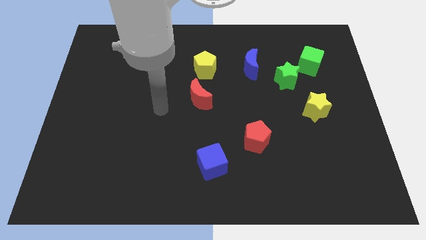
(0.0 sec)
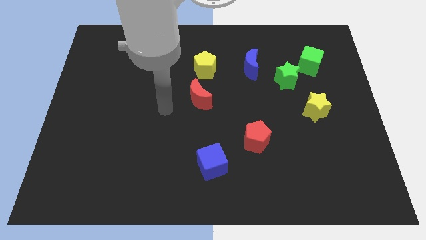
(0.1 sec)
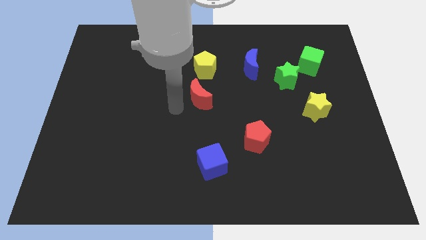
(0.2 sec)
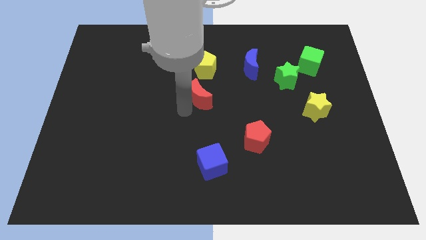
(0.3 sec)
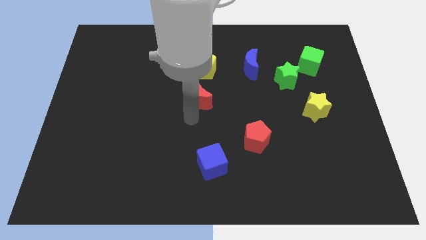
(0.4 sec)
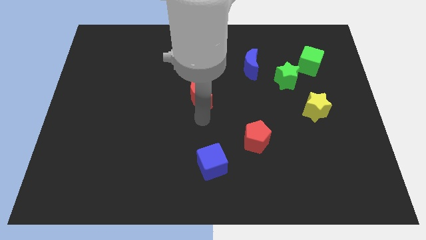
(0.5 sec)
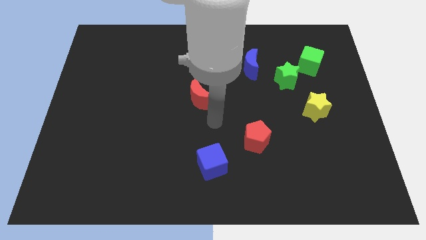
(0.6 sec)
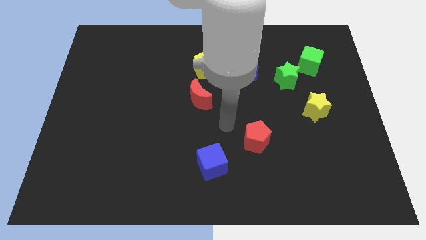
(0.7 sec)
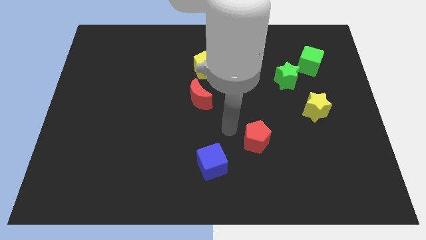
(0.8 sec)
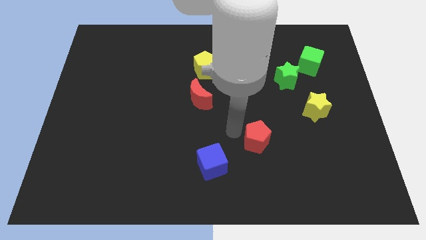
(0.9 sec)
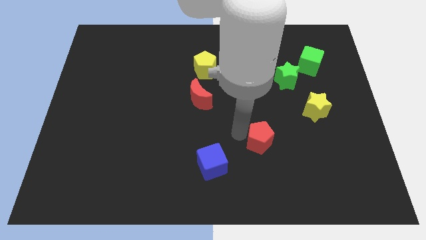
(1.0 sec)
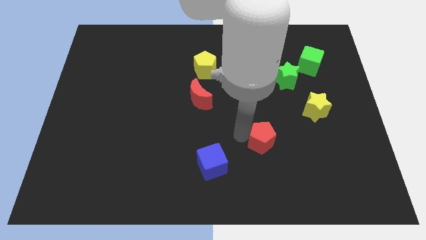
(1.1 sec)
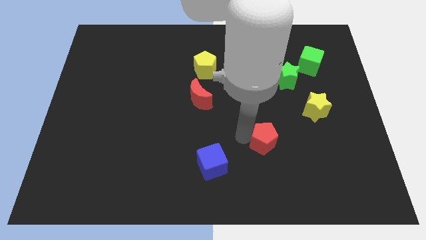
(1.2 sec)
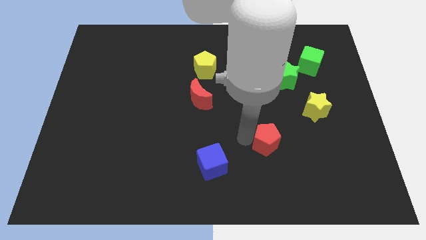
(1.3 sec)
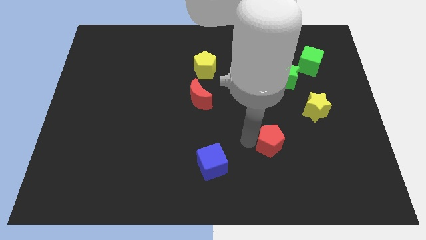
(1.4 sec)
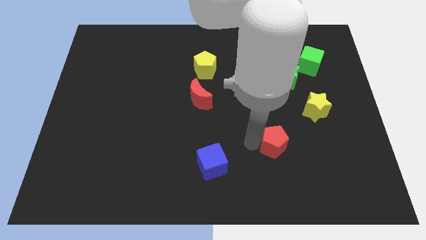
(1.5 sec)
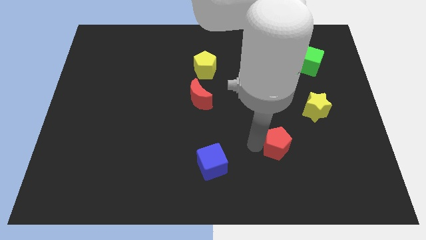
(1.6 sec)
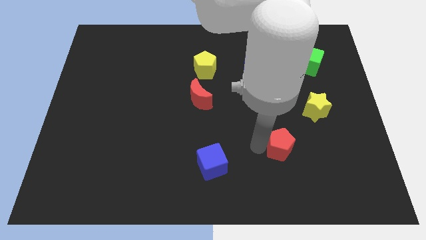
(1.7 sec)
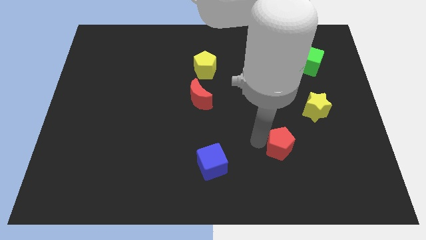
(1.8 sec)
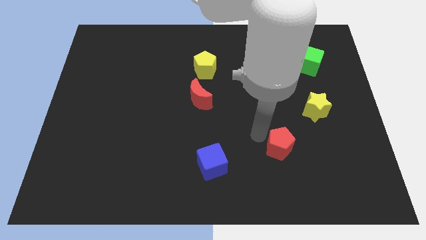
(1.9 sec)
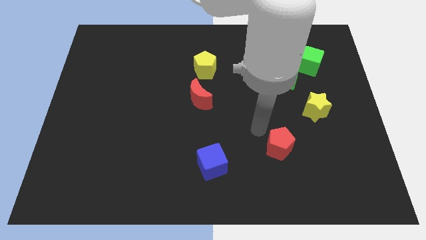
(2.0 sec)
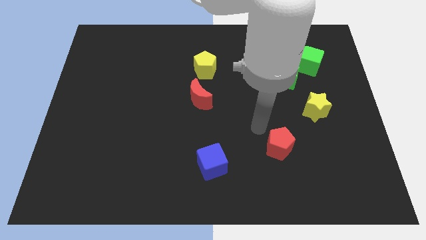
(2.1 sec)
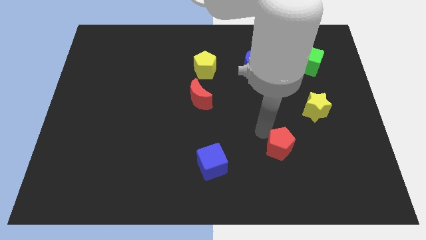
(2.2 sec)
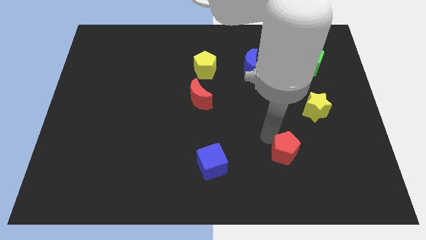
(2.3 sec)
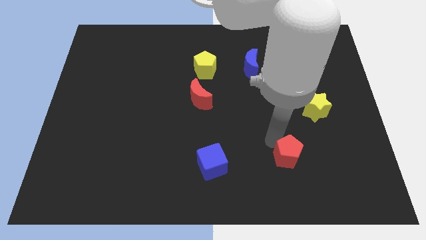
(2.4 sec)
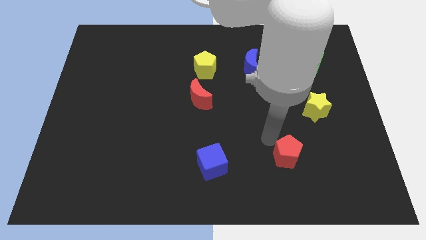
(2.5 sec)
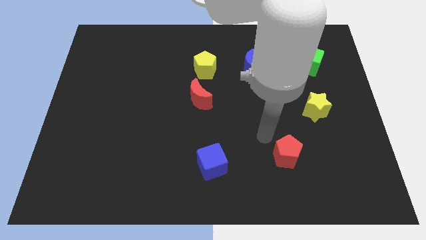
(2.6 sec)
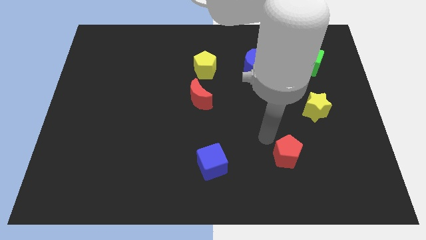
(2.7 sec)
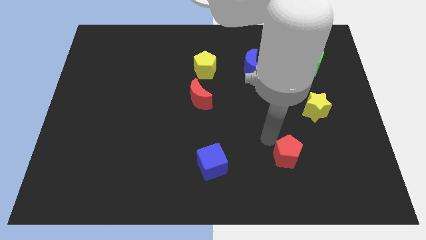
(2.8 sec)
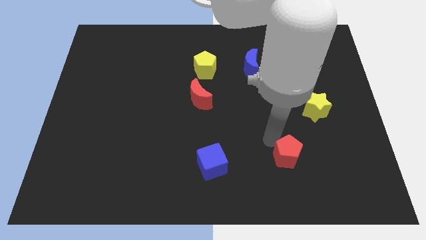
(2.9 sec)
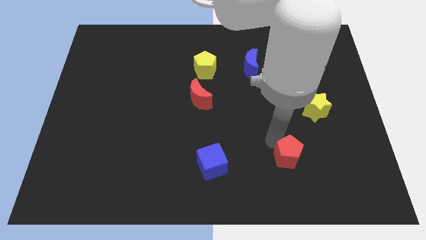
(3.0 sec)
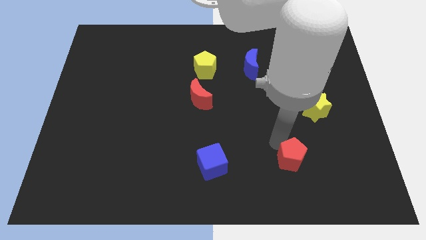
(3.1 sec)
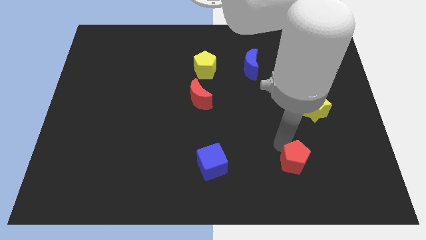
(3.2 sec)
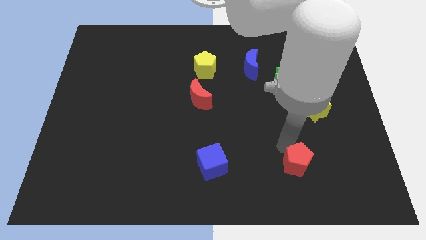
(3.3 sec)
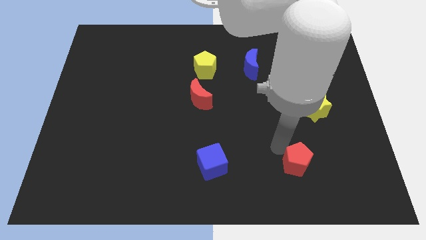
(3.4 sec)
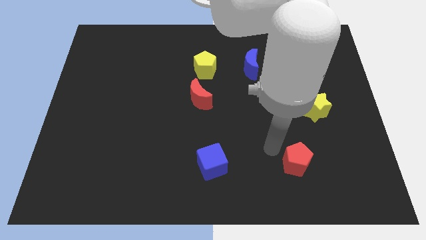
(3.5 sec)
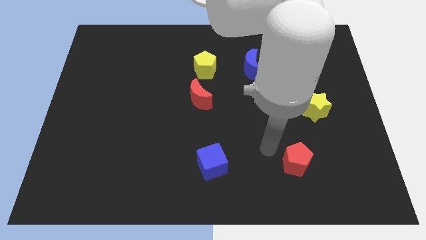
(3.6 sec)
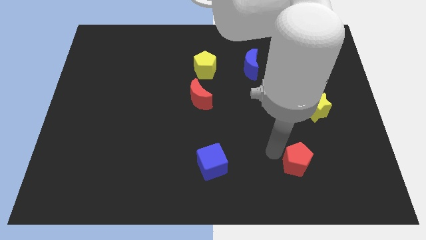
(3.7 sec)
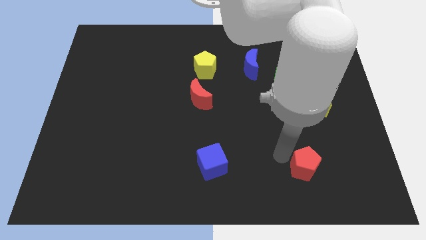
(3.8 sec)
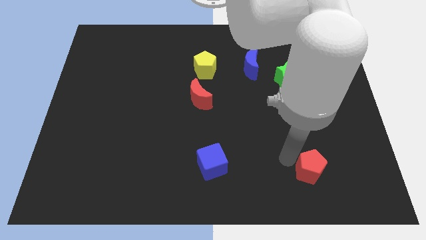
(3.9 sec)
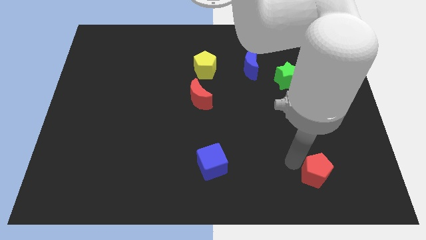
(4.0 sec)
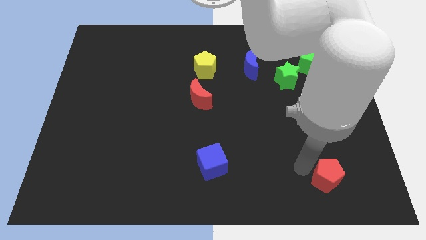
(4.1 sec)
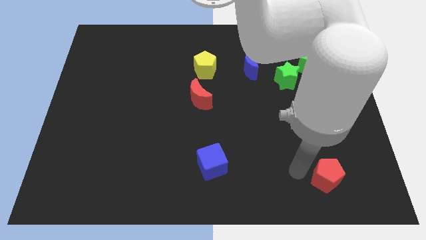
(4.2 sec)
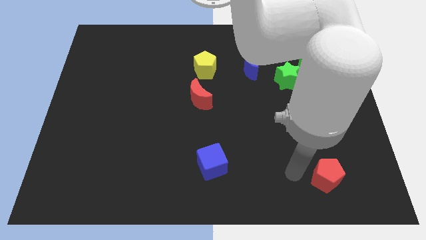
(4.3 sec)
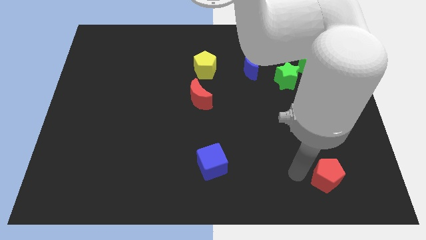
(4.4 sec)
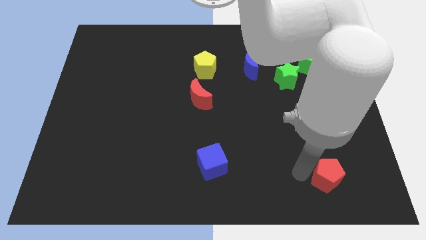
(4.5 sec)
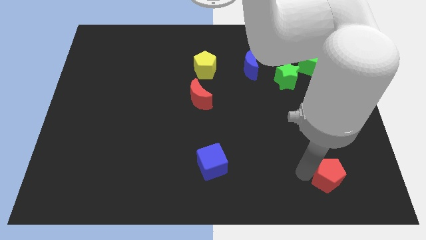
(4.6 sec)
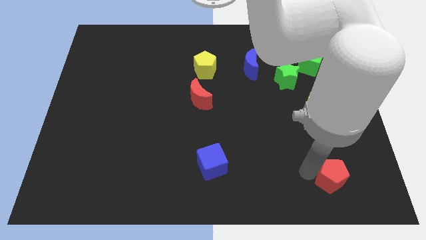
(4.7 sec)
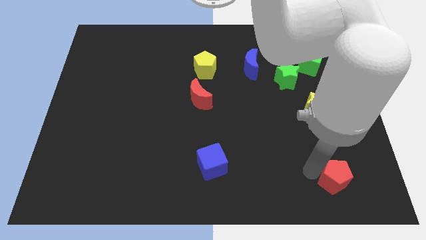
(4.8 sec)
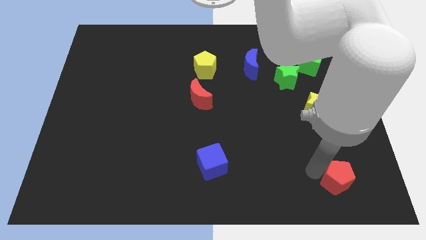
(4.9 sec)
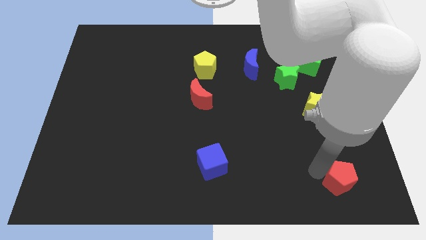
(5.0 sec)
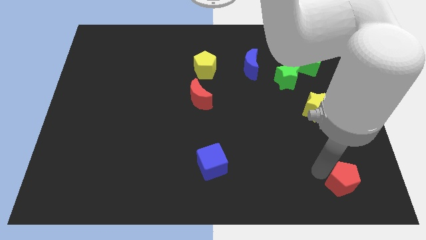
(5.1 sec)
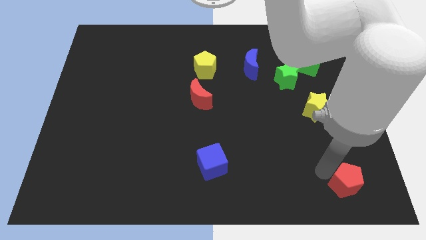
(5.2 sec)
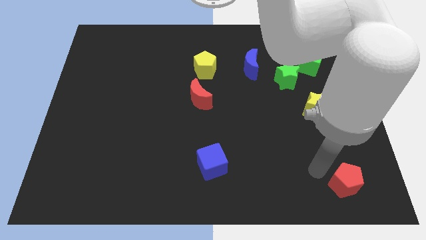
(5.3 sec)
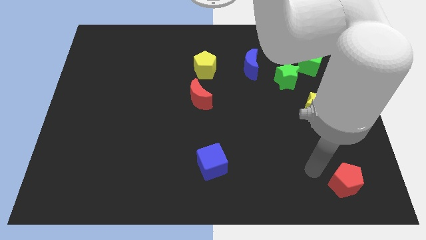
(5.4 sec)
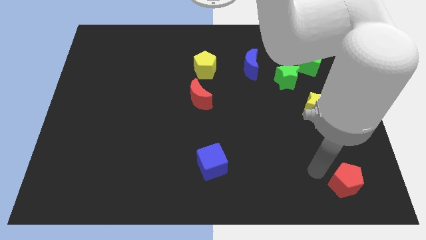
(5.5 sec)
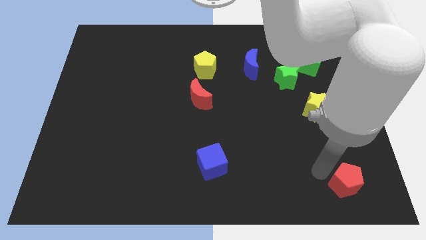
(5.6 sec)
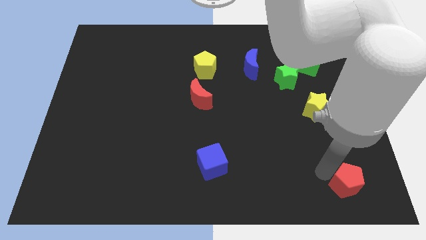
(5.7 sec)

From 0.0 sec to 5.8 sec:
slide the red pentagon to the bottom right
